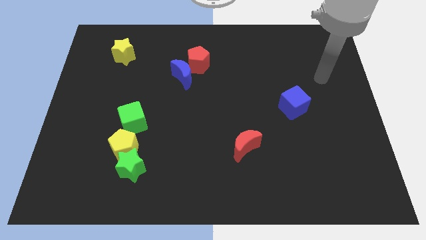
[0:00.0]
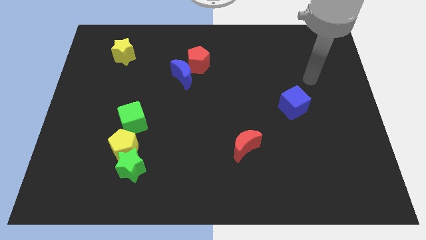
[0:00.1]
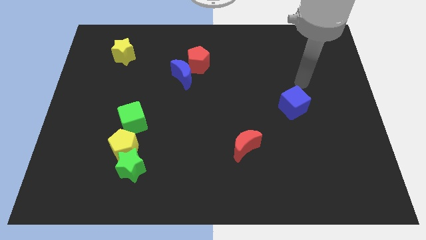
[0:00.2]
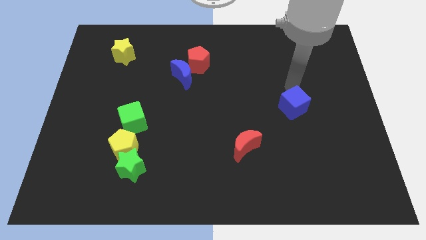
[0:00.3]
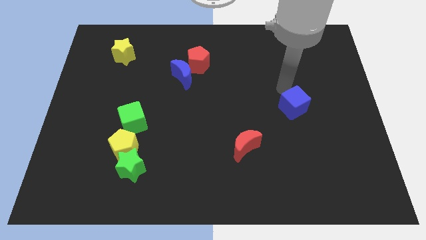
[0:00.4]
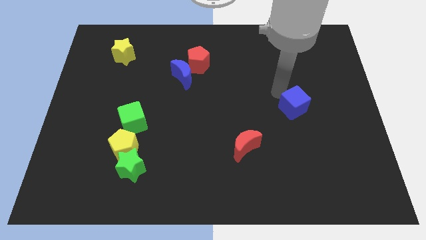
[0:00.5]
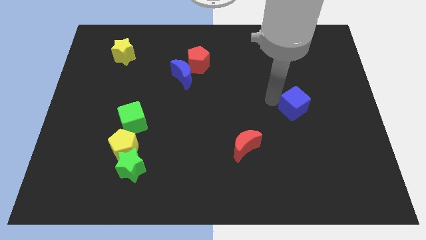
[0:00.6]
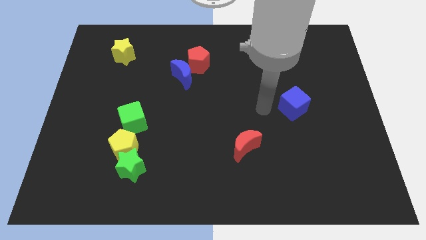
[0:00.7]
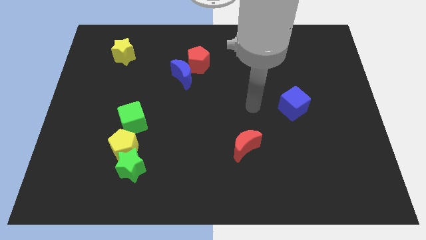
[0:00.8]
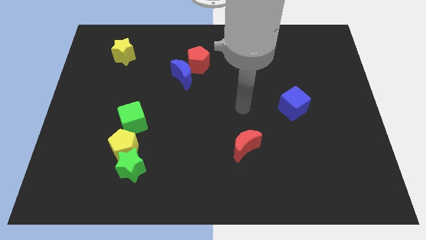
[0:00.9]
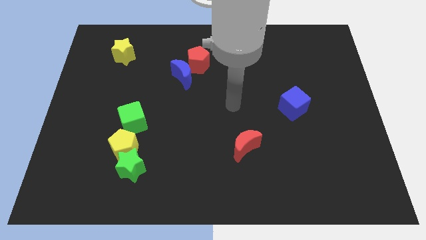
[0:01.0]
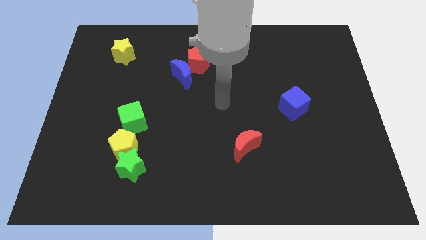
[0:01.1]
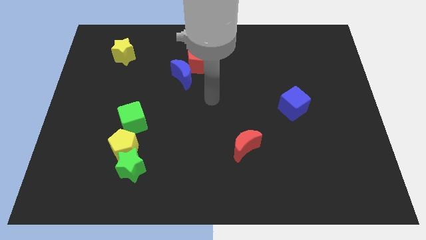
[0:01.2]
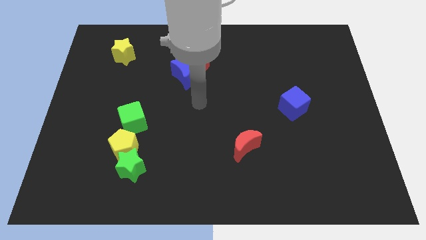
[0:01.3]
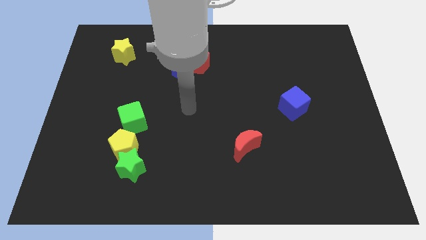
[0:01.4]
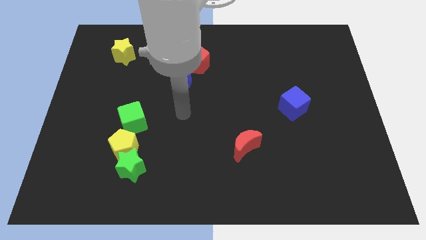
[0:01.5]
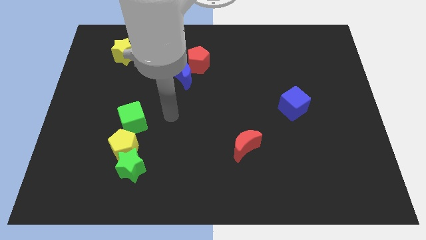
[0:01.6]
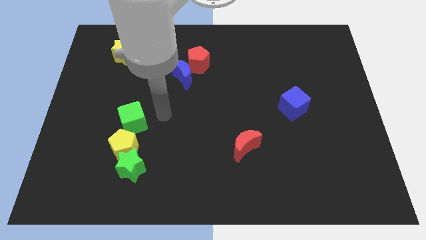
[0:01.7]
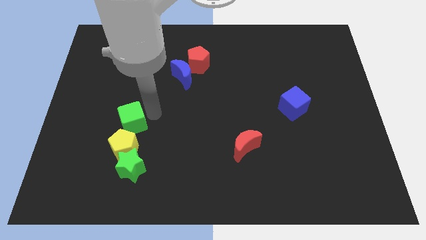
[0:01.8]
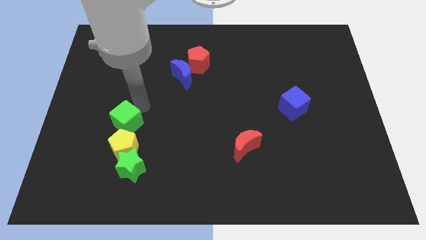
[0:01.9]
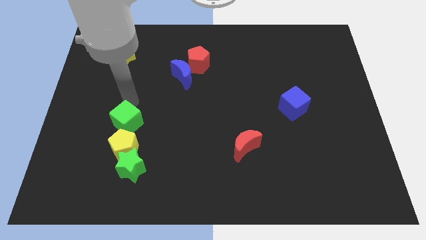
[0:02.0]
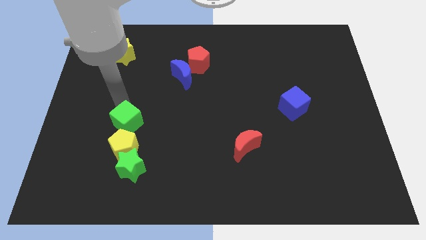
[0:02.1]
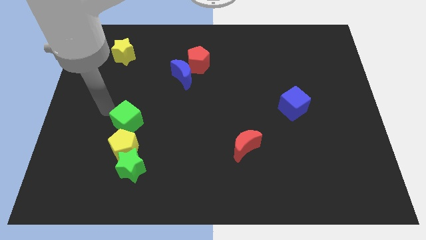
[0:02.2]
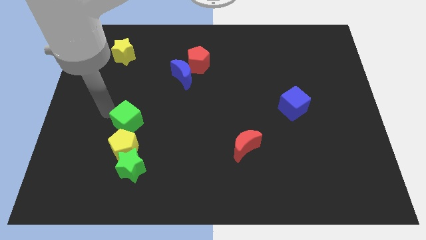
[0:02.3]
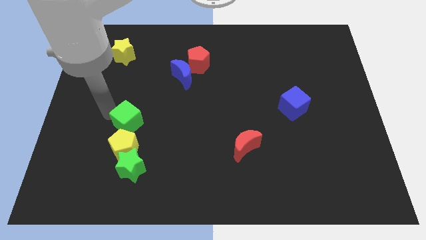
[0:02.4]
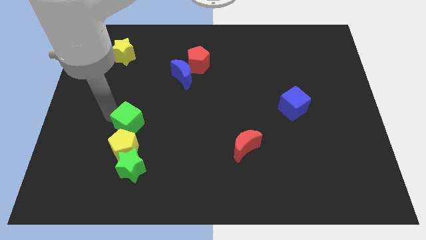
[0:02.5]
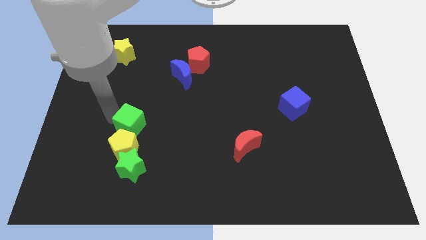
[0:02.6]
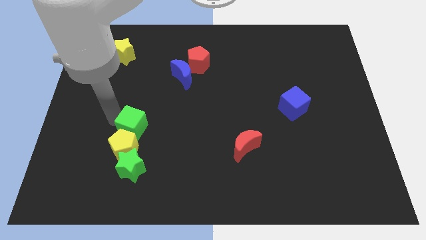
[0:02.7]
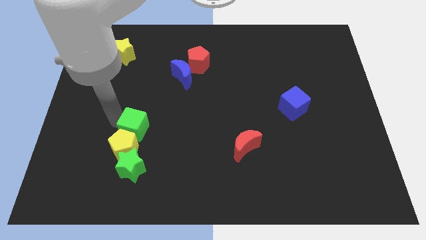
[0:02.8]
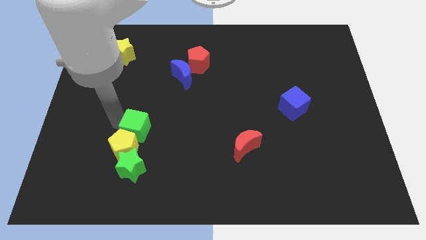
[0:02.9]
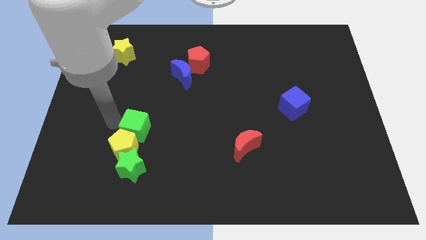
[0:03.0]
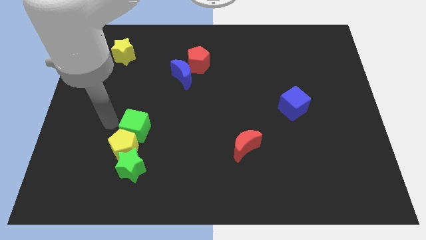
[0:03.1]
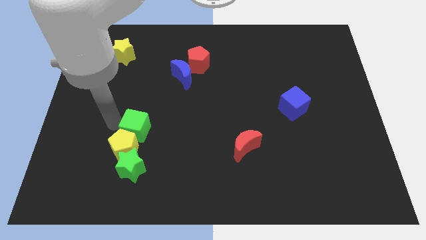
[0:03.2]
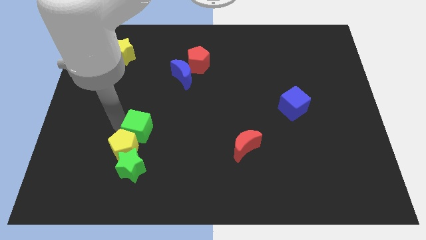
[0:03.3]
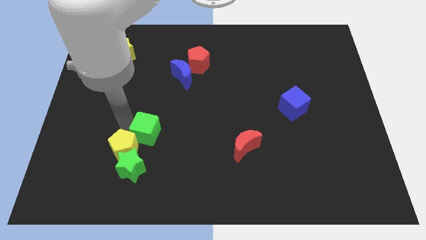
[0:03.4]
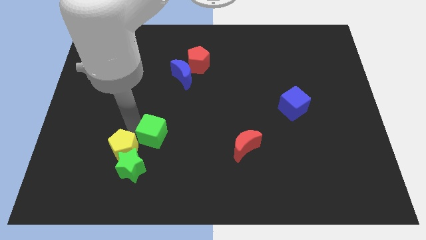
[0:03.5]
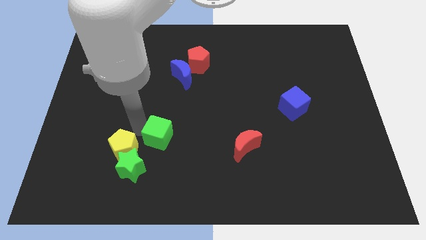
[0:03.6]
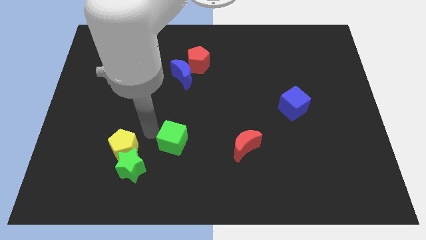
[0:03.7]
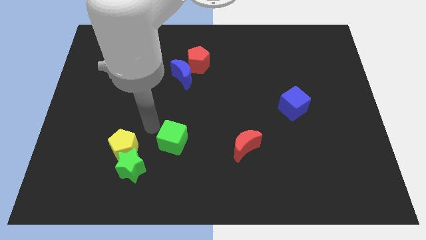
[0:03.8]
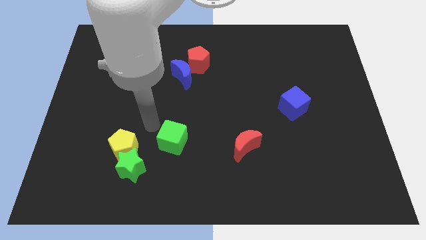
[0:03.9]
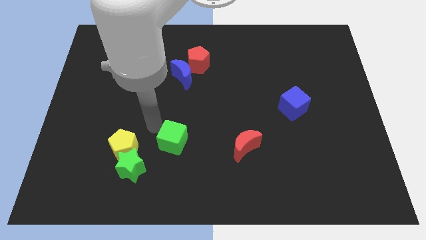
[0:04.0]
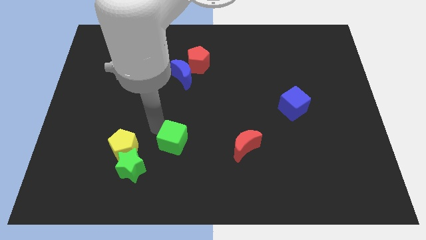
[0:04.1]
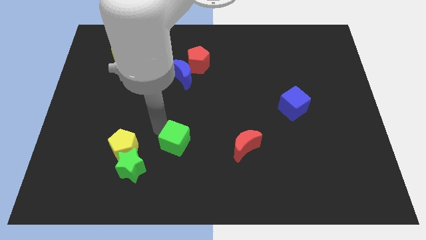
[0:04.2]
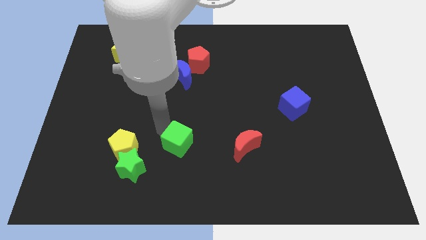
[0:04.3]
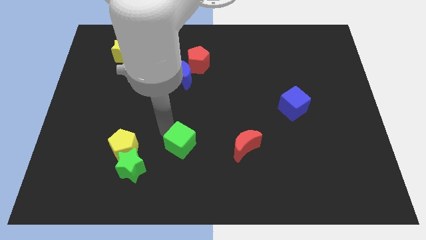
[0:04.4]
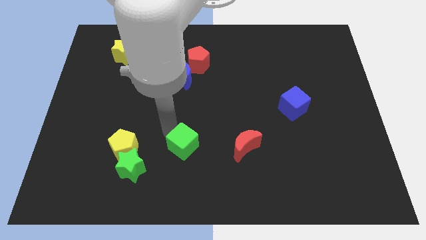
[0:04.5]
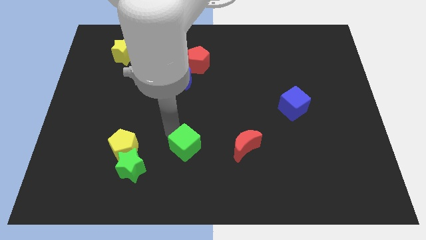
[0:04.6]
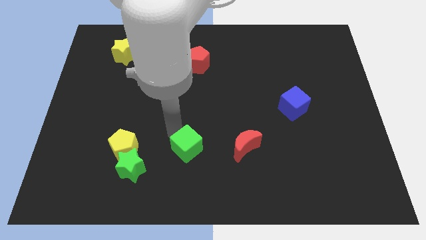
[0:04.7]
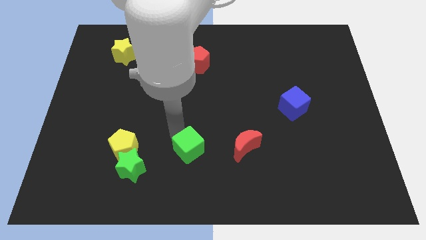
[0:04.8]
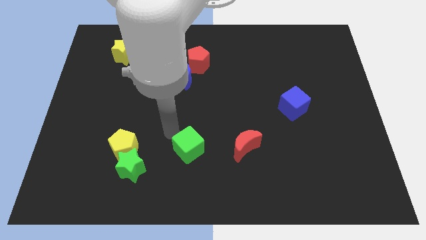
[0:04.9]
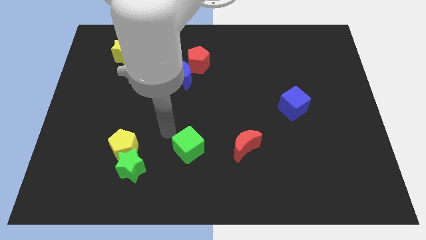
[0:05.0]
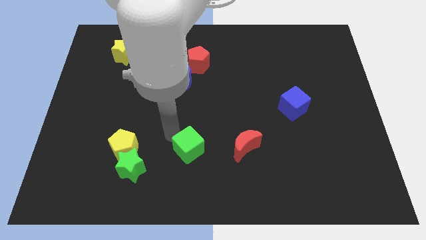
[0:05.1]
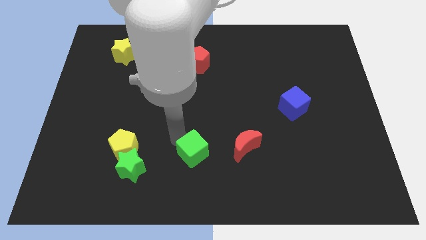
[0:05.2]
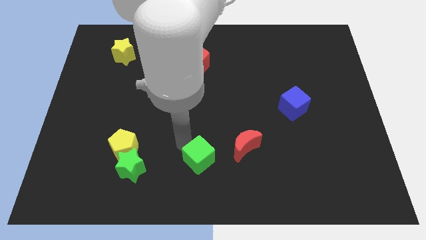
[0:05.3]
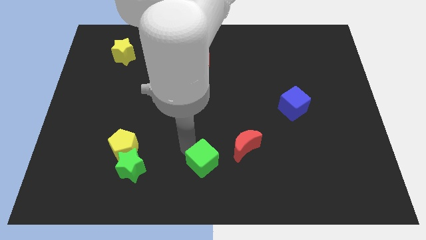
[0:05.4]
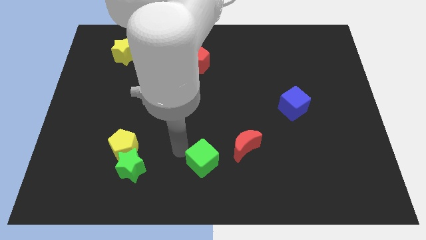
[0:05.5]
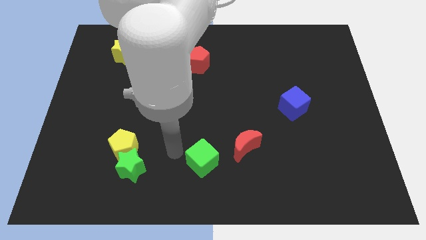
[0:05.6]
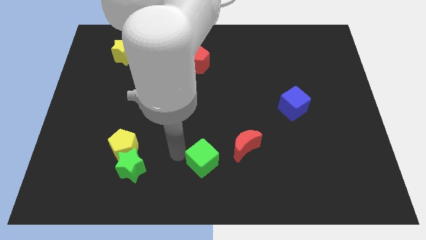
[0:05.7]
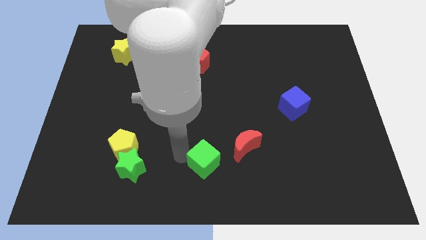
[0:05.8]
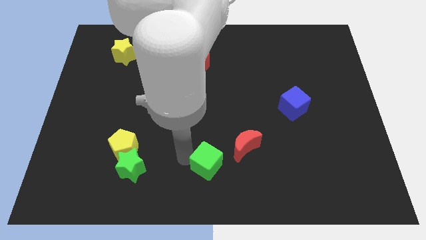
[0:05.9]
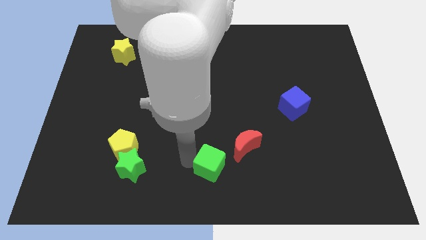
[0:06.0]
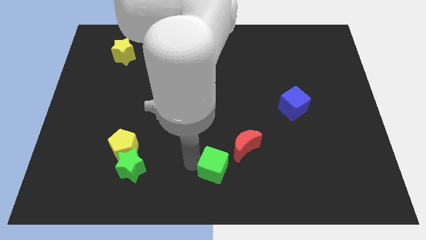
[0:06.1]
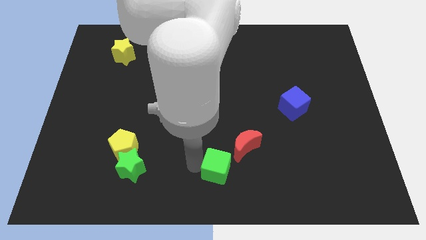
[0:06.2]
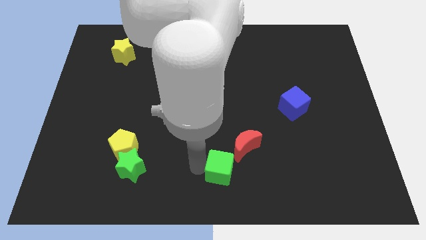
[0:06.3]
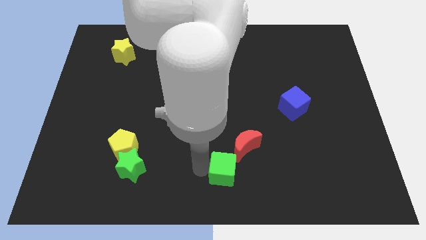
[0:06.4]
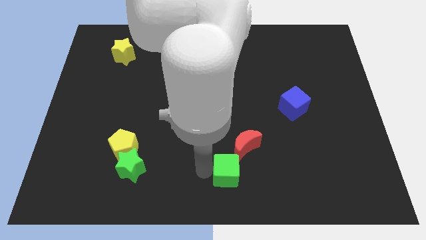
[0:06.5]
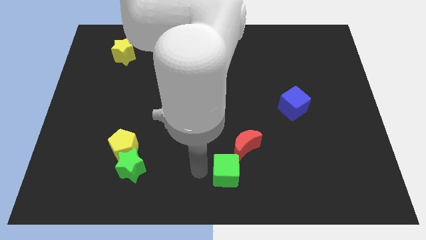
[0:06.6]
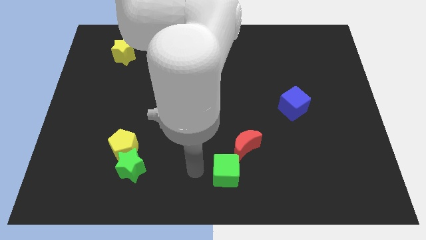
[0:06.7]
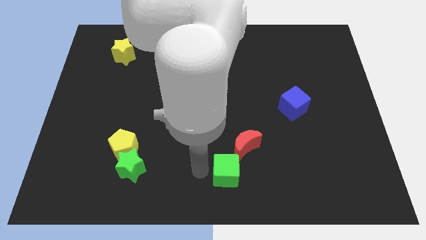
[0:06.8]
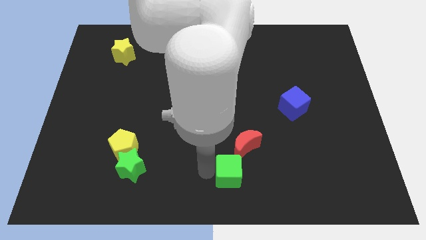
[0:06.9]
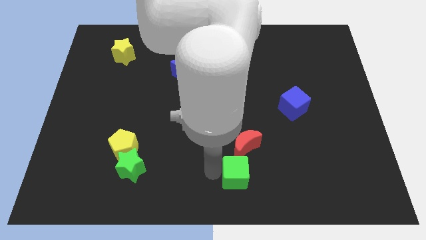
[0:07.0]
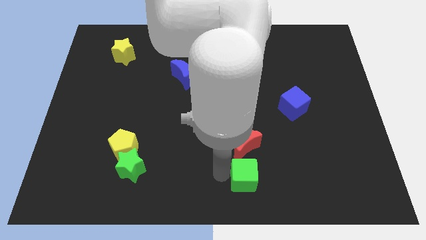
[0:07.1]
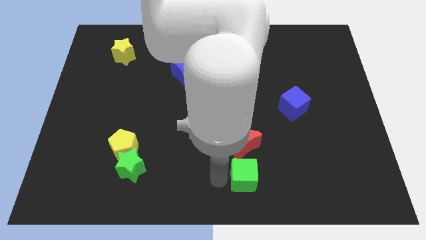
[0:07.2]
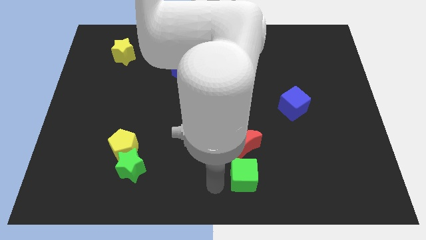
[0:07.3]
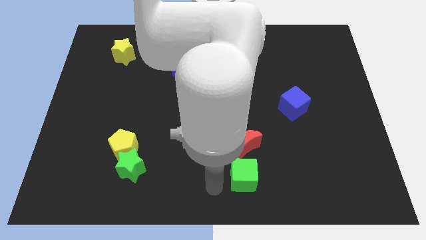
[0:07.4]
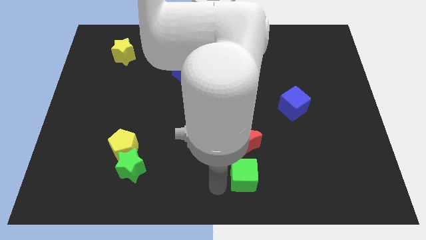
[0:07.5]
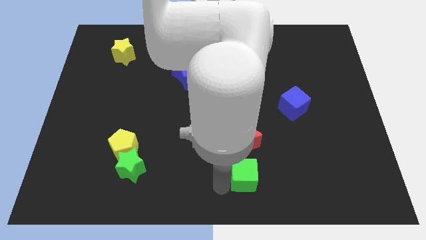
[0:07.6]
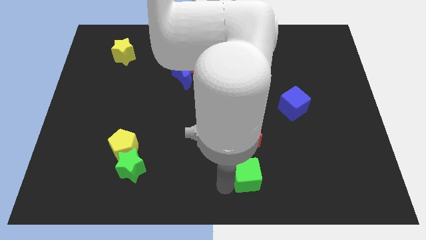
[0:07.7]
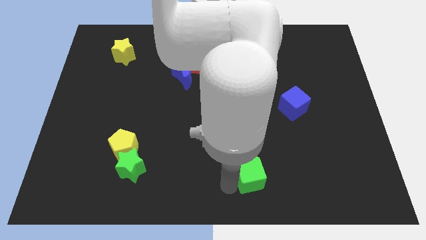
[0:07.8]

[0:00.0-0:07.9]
move the green cube diagonally down and to the right of the red moon
